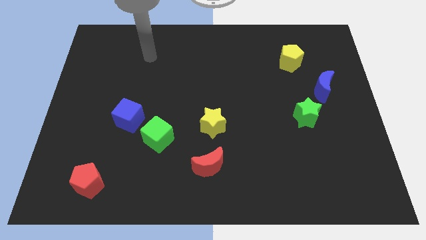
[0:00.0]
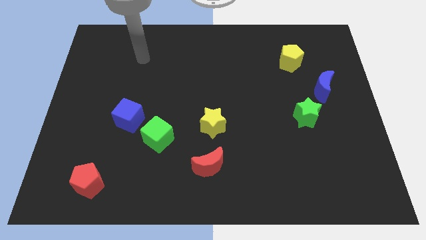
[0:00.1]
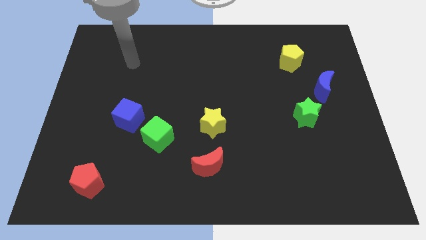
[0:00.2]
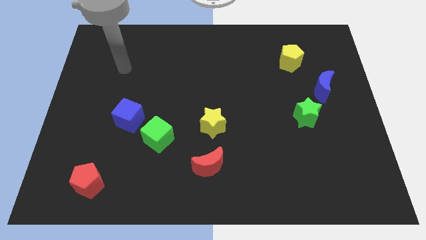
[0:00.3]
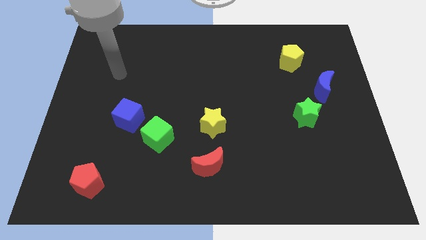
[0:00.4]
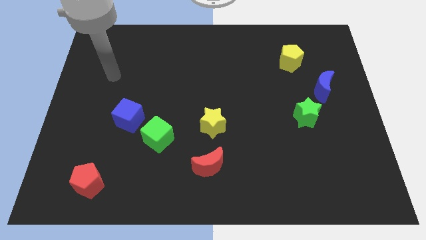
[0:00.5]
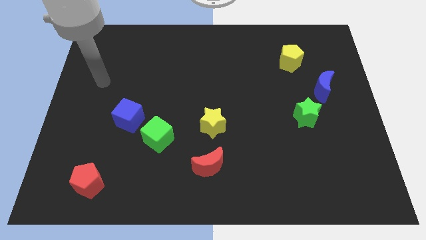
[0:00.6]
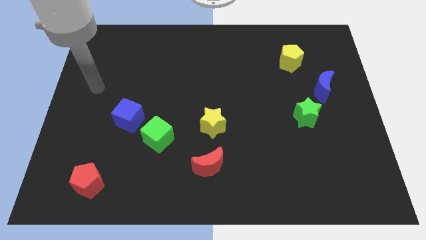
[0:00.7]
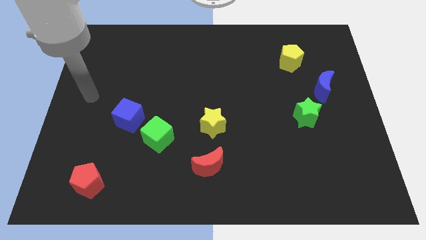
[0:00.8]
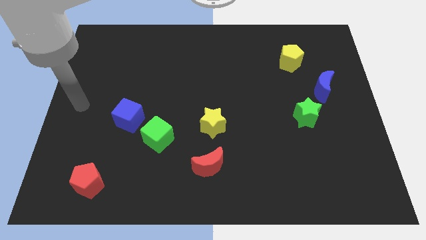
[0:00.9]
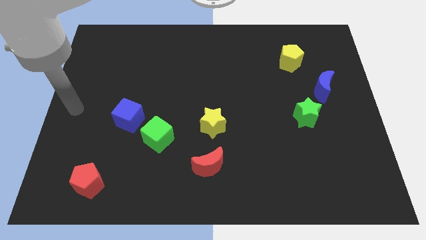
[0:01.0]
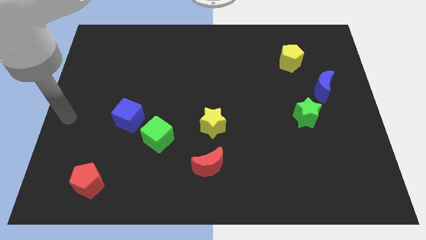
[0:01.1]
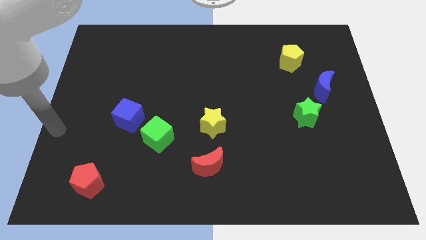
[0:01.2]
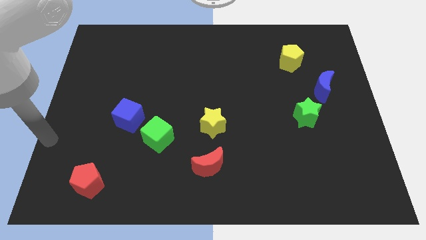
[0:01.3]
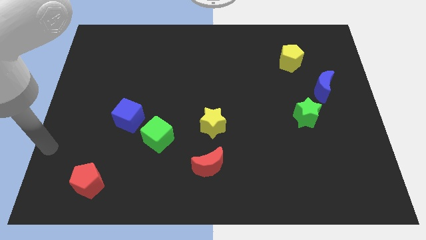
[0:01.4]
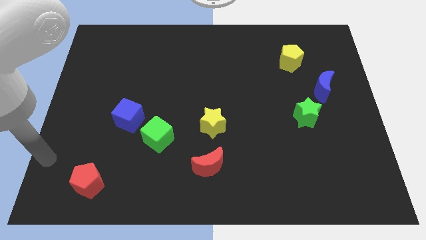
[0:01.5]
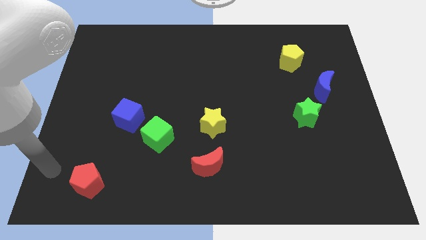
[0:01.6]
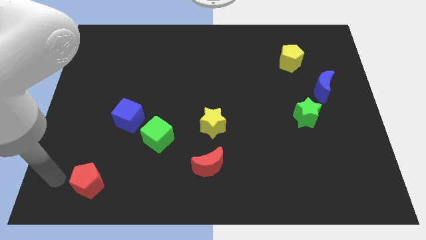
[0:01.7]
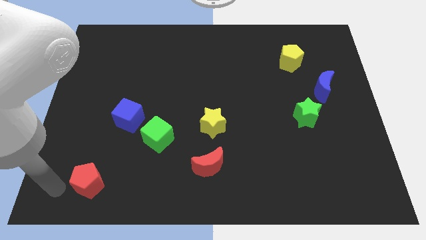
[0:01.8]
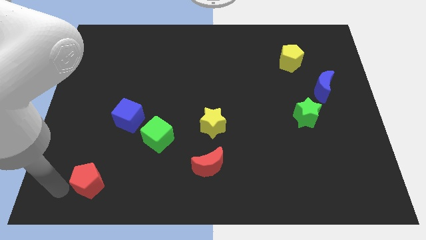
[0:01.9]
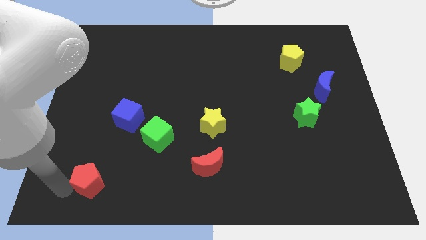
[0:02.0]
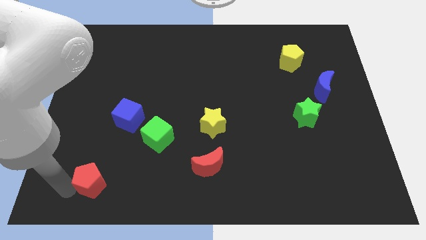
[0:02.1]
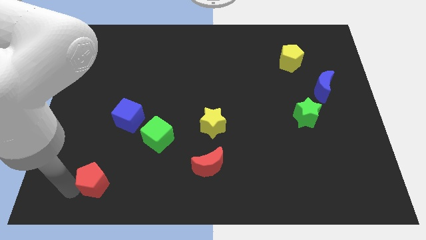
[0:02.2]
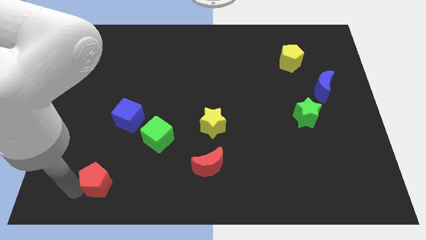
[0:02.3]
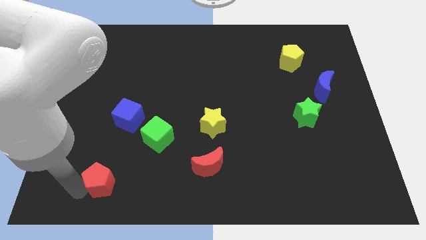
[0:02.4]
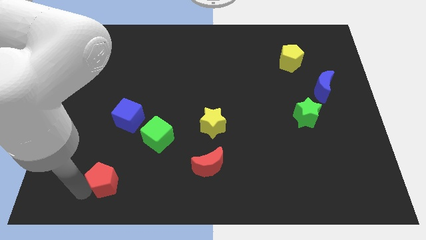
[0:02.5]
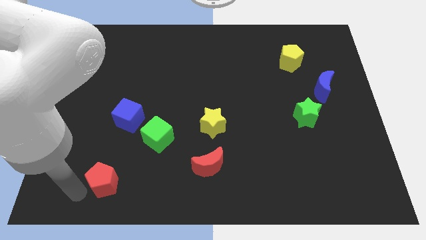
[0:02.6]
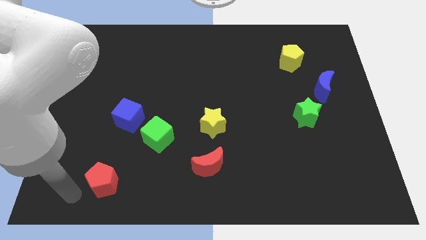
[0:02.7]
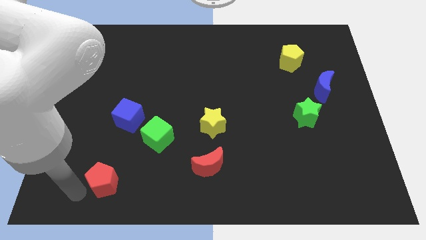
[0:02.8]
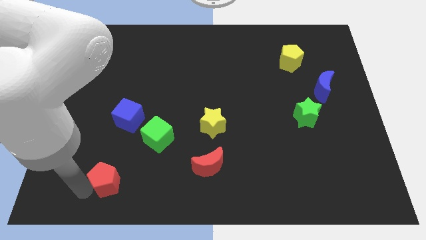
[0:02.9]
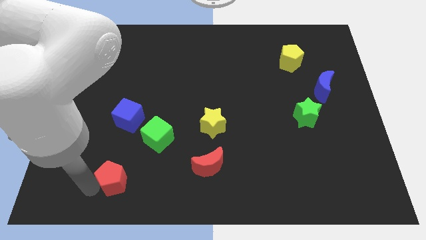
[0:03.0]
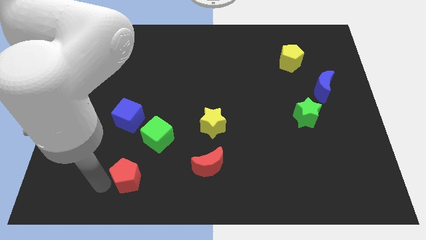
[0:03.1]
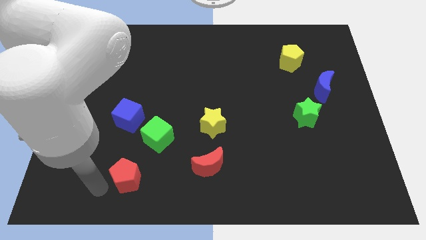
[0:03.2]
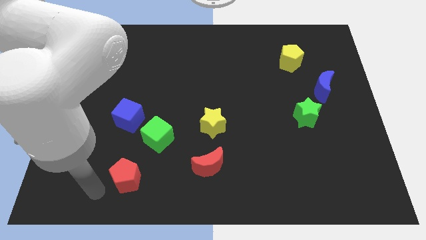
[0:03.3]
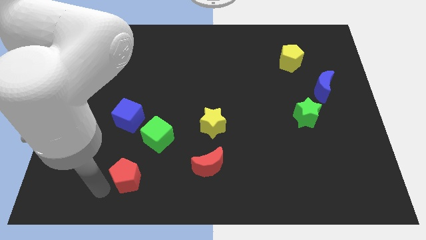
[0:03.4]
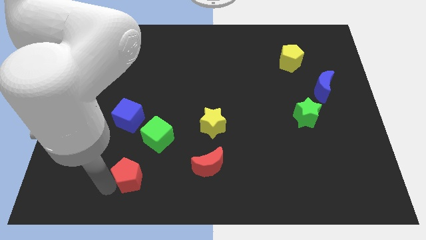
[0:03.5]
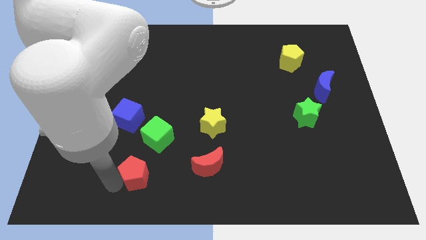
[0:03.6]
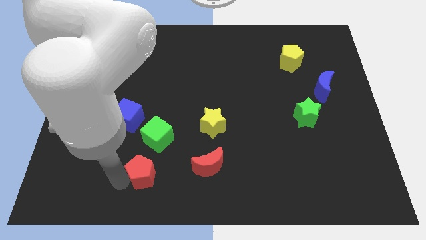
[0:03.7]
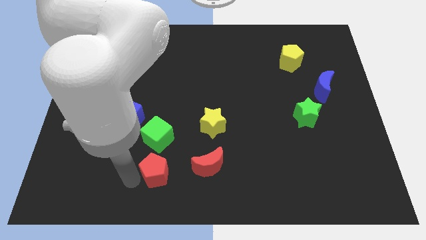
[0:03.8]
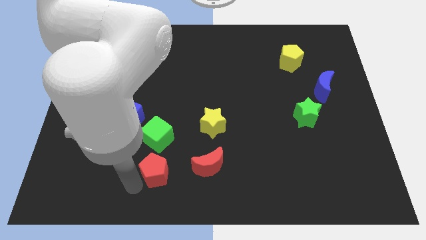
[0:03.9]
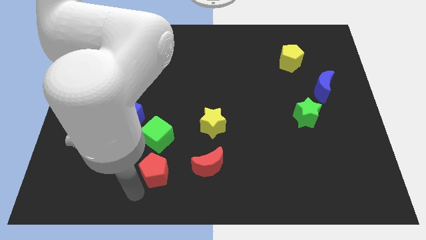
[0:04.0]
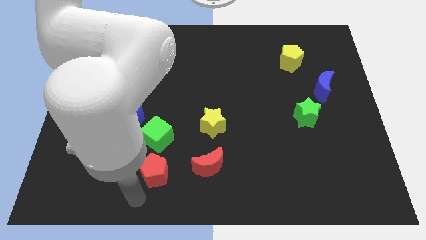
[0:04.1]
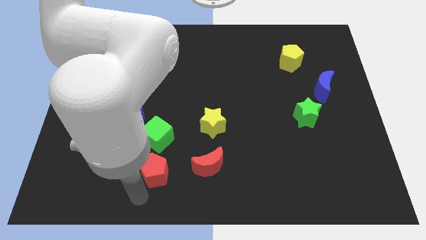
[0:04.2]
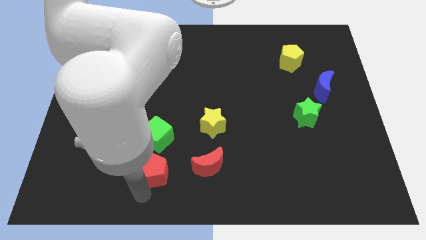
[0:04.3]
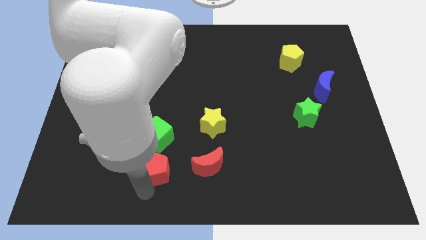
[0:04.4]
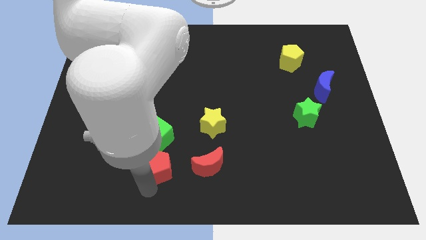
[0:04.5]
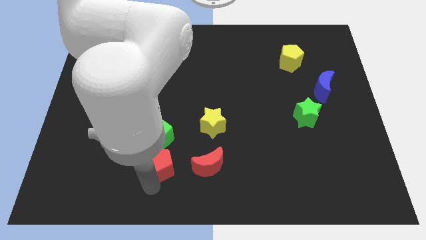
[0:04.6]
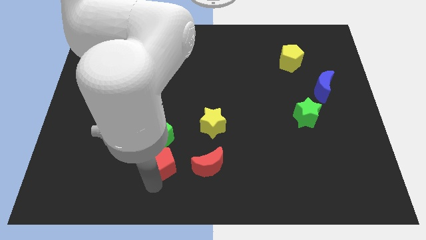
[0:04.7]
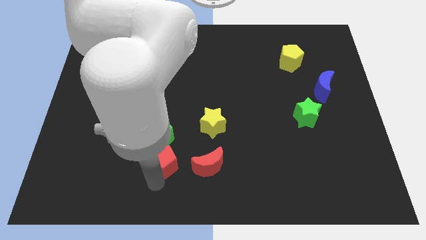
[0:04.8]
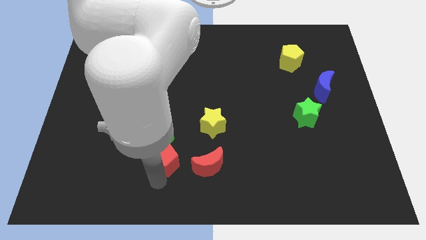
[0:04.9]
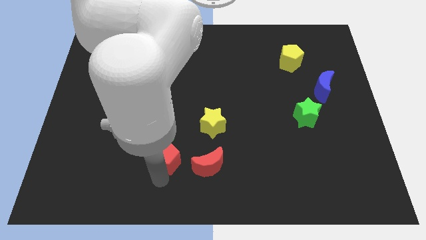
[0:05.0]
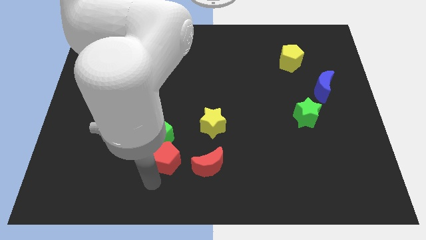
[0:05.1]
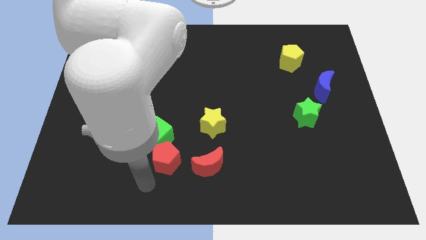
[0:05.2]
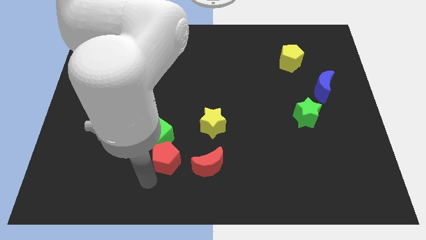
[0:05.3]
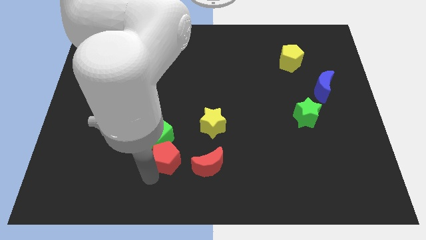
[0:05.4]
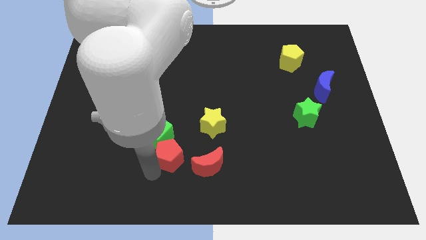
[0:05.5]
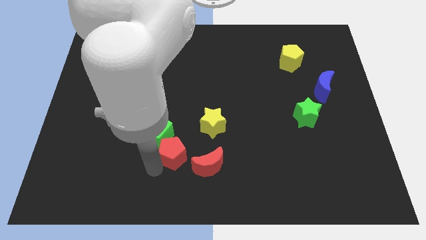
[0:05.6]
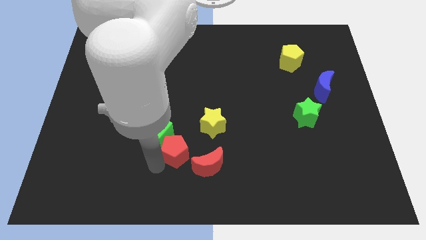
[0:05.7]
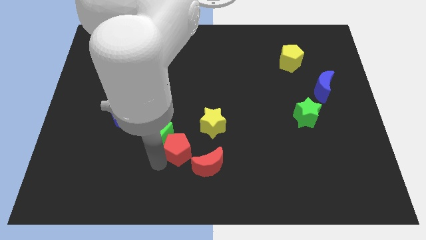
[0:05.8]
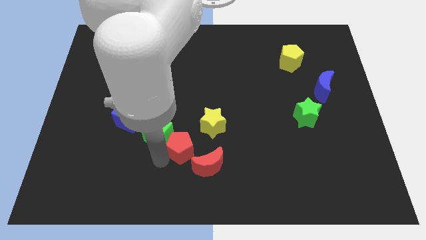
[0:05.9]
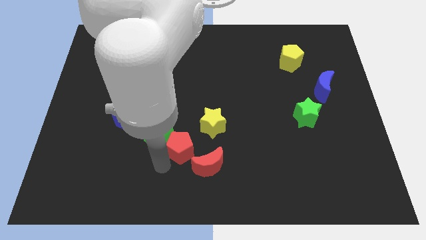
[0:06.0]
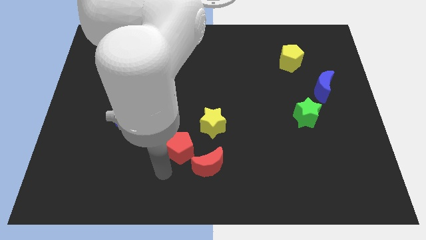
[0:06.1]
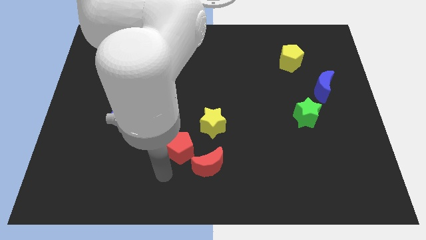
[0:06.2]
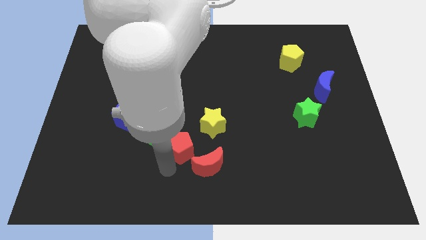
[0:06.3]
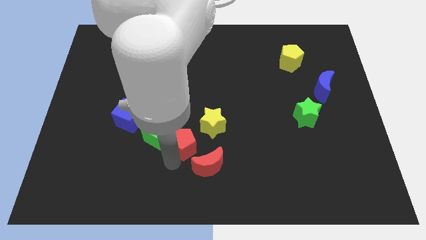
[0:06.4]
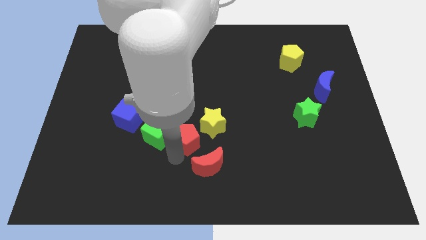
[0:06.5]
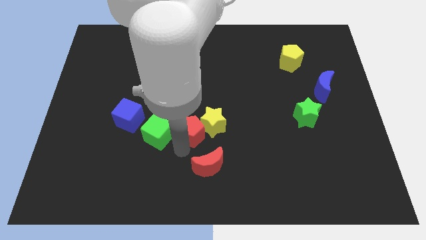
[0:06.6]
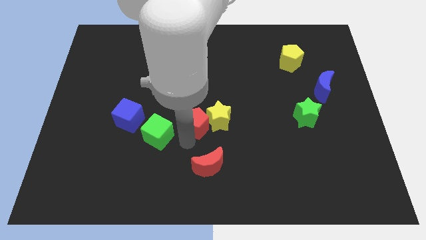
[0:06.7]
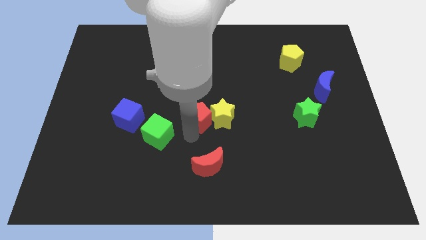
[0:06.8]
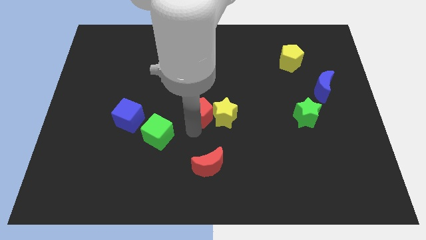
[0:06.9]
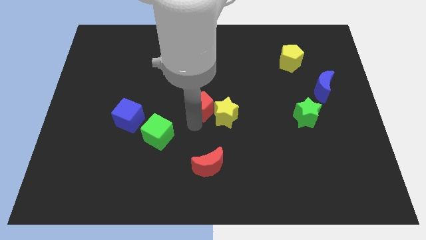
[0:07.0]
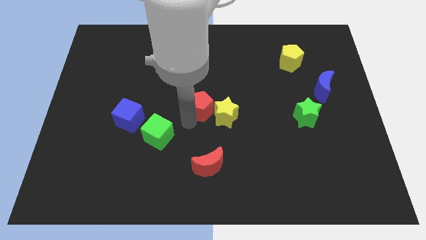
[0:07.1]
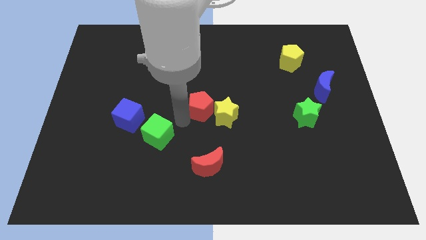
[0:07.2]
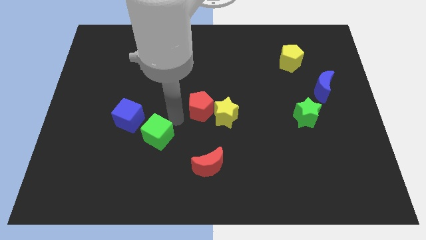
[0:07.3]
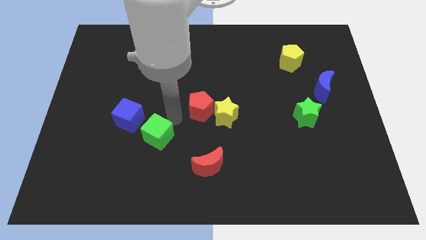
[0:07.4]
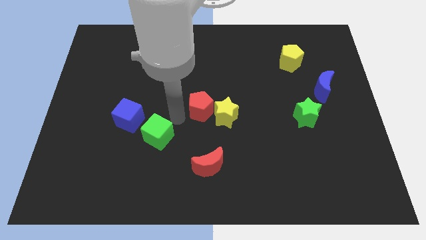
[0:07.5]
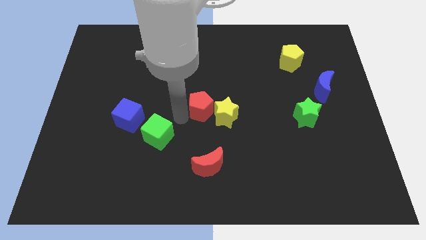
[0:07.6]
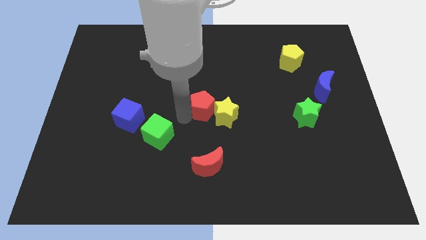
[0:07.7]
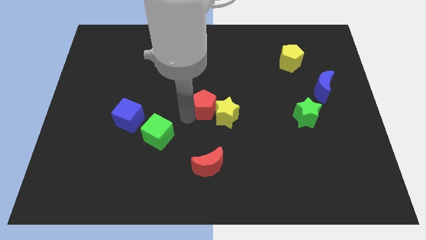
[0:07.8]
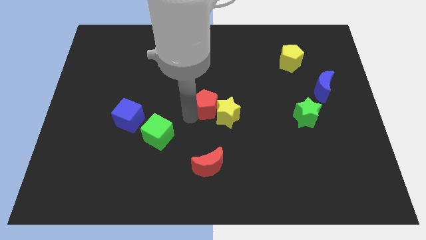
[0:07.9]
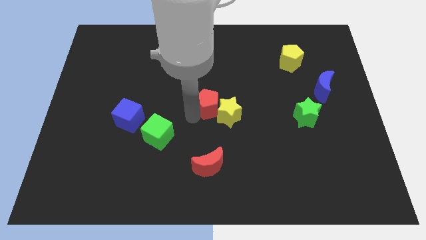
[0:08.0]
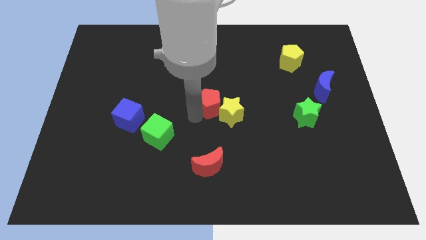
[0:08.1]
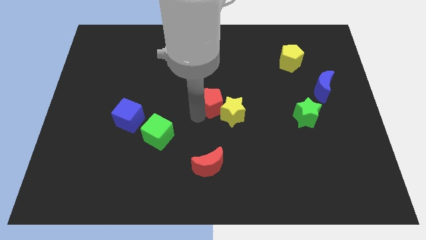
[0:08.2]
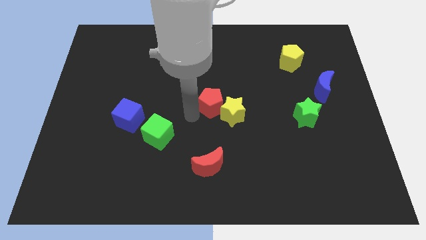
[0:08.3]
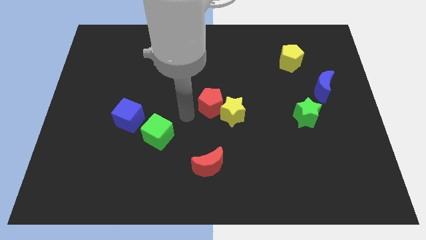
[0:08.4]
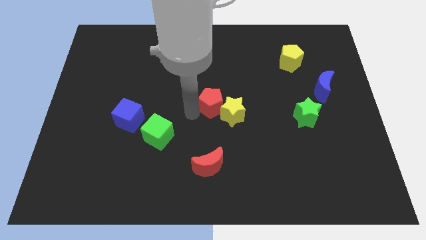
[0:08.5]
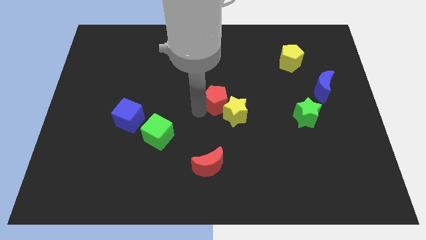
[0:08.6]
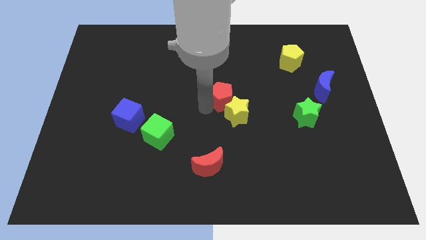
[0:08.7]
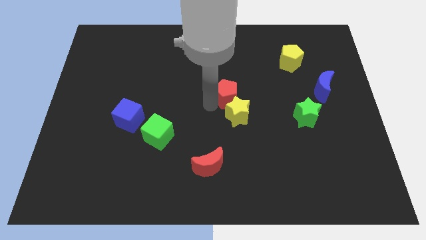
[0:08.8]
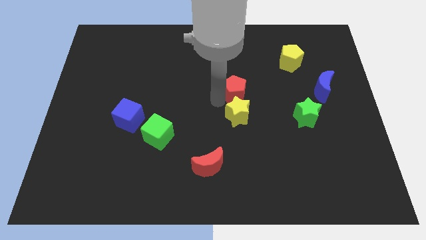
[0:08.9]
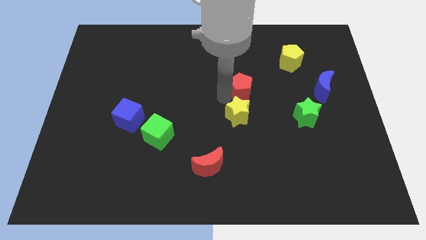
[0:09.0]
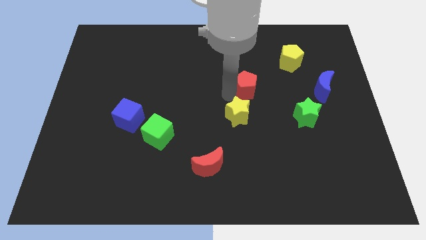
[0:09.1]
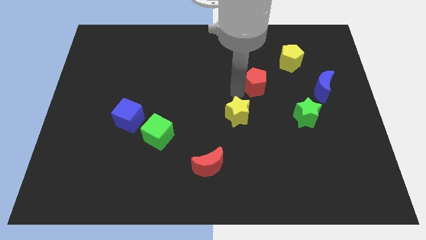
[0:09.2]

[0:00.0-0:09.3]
push the red pentagon diagonally down and to the left of the yellow pentagon
